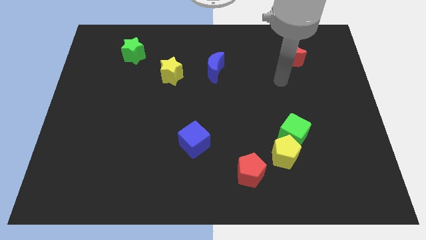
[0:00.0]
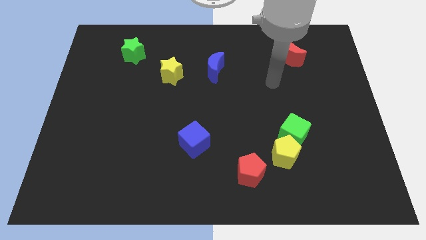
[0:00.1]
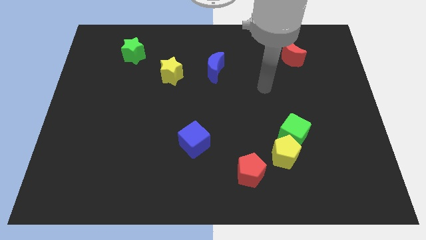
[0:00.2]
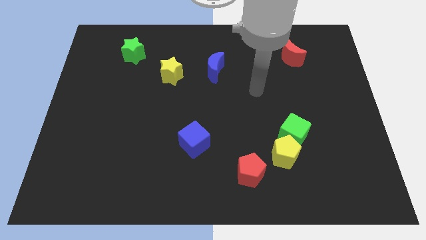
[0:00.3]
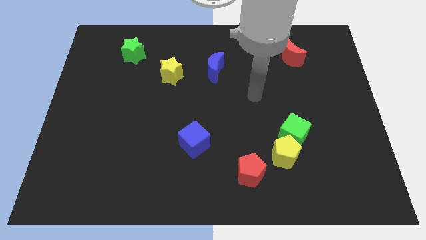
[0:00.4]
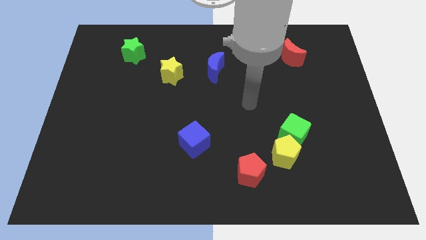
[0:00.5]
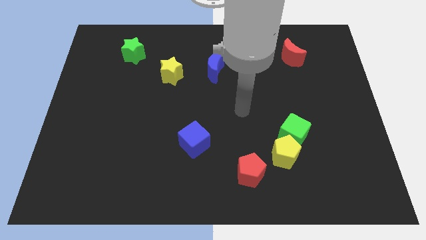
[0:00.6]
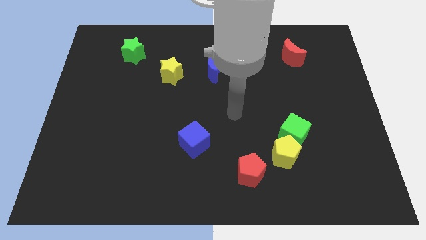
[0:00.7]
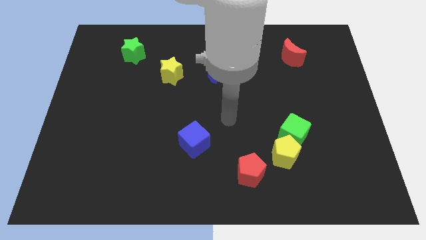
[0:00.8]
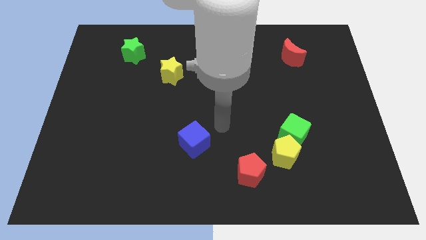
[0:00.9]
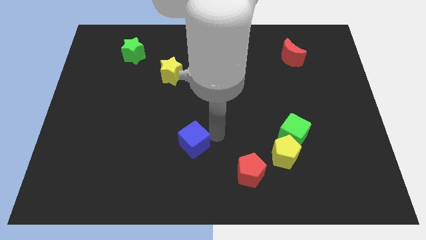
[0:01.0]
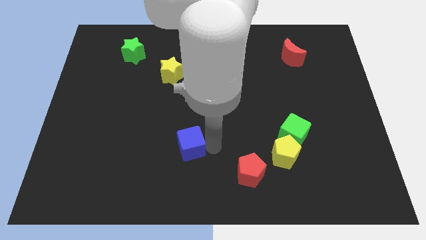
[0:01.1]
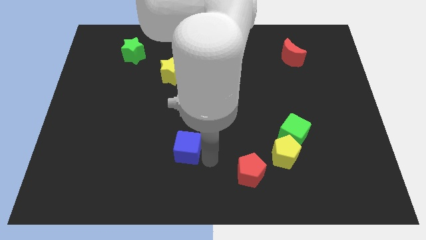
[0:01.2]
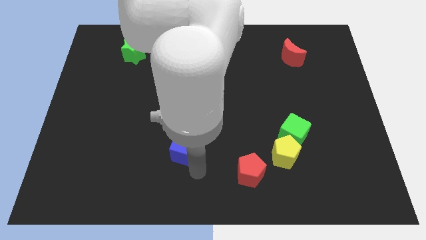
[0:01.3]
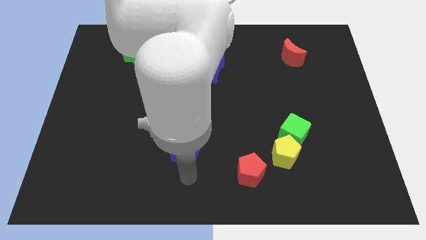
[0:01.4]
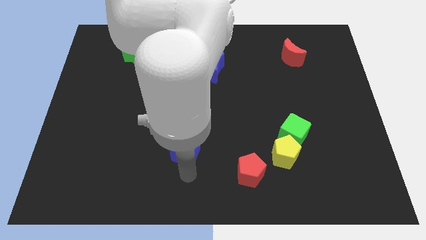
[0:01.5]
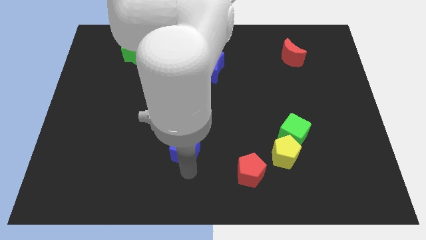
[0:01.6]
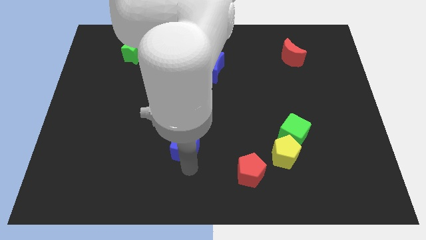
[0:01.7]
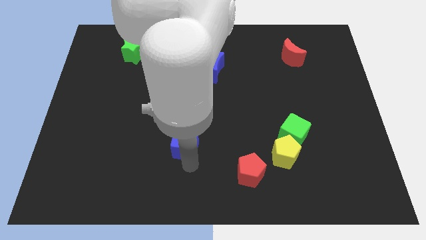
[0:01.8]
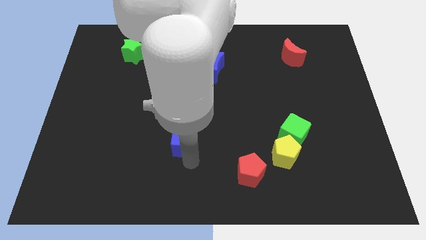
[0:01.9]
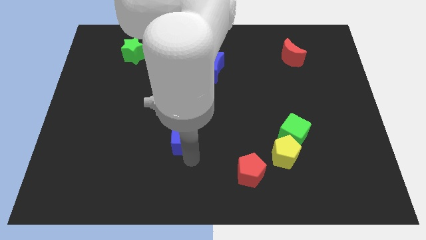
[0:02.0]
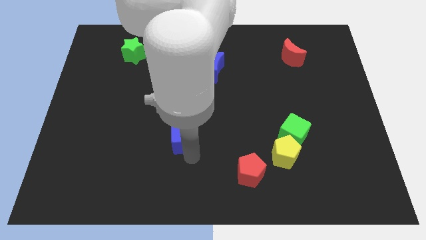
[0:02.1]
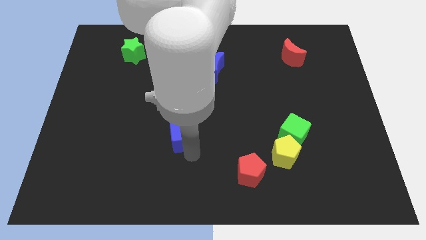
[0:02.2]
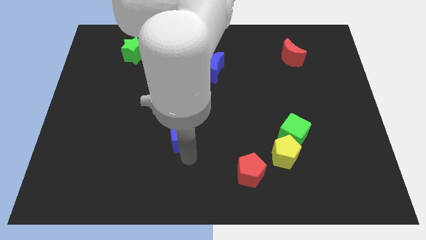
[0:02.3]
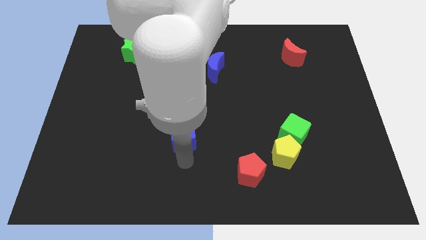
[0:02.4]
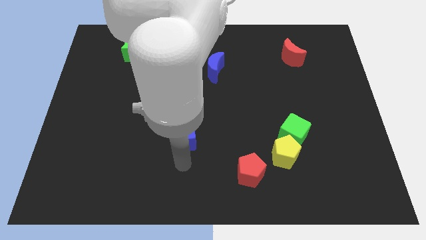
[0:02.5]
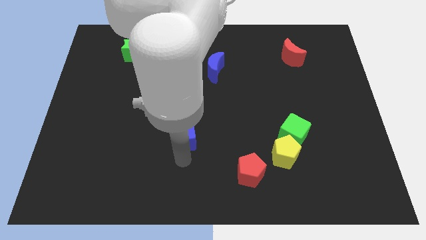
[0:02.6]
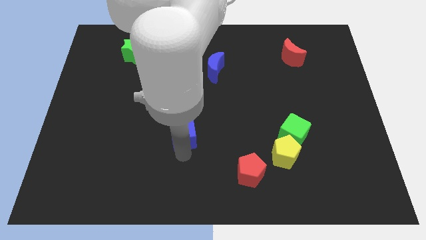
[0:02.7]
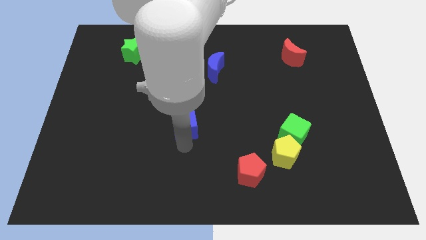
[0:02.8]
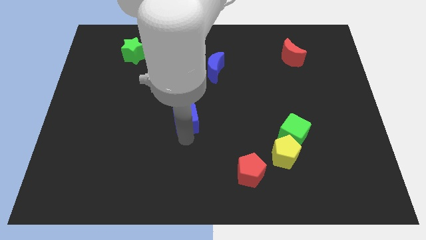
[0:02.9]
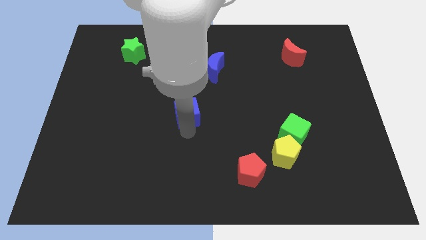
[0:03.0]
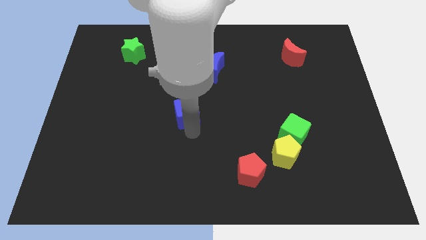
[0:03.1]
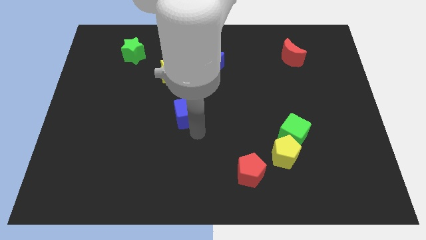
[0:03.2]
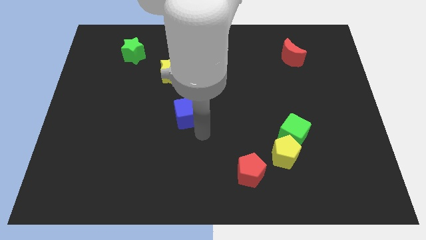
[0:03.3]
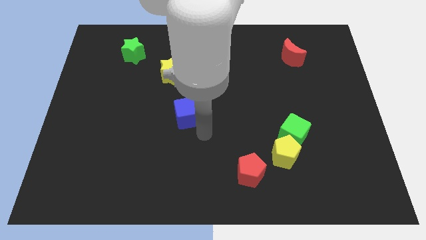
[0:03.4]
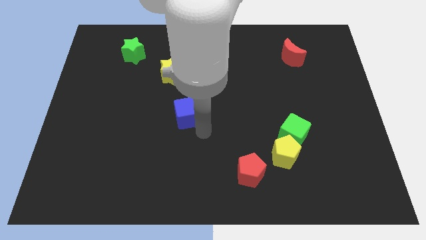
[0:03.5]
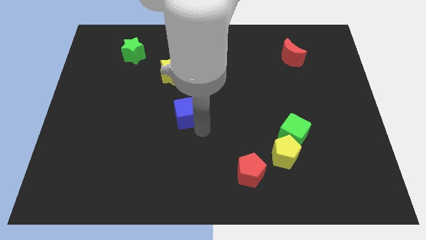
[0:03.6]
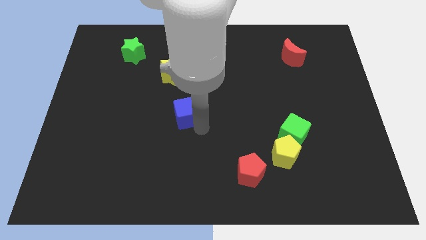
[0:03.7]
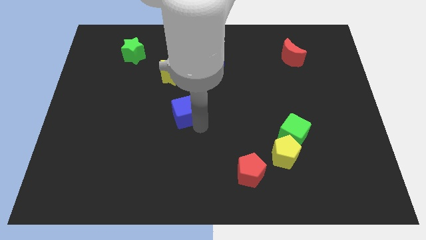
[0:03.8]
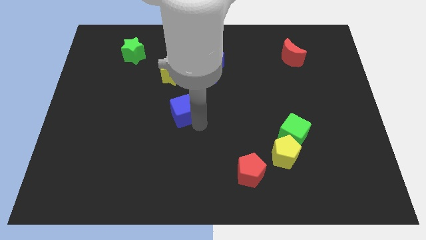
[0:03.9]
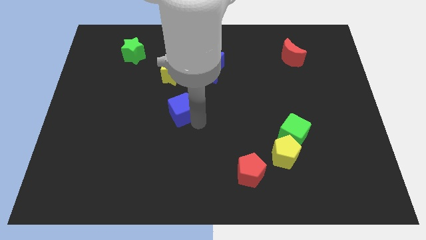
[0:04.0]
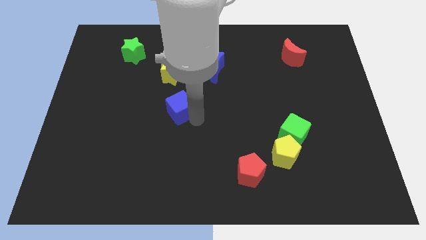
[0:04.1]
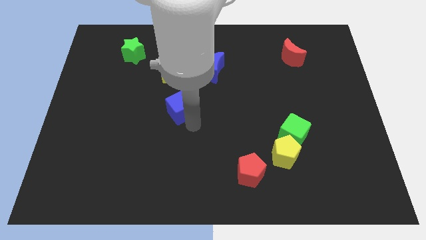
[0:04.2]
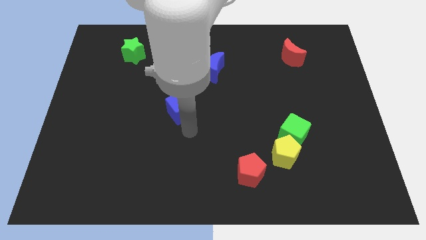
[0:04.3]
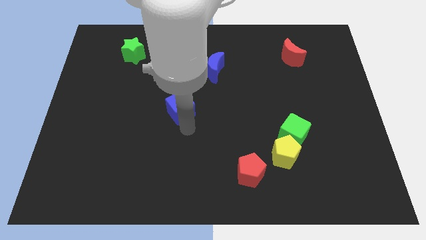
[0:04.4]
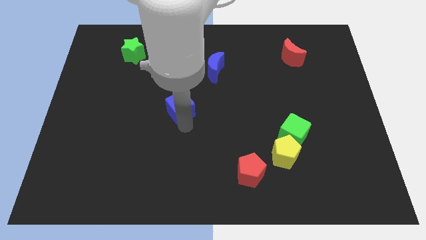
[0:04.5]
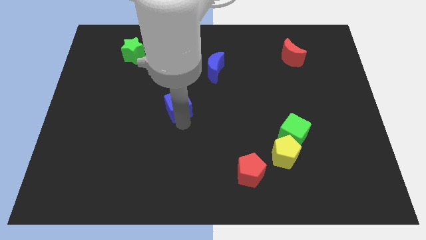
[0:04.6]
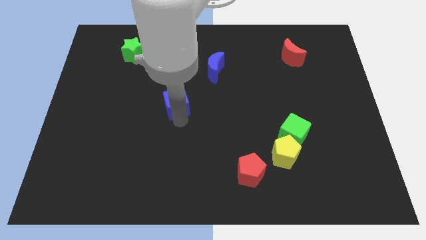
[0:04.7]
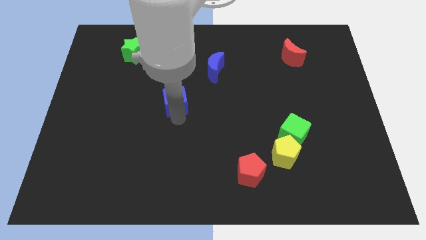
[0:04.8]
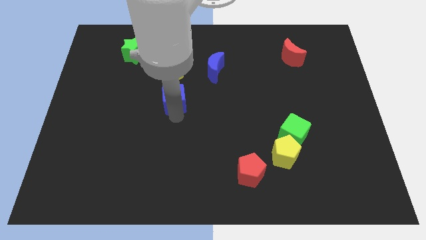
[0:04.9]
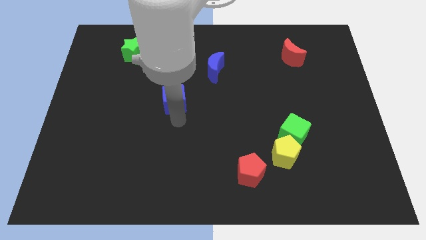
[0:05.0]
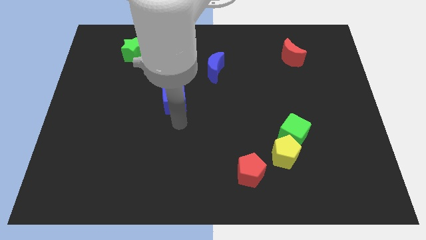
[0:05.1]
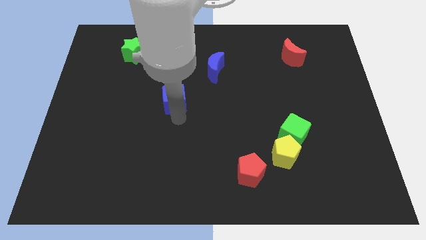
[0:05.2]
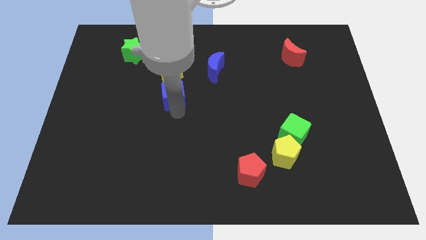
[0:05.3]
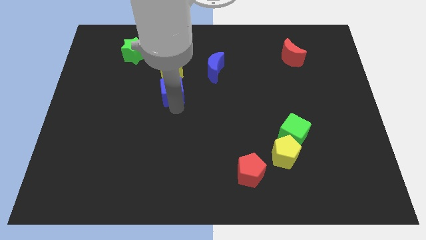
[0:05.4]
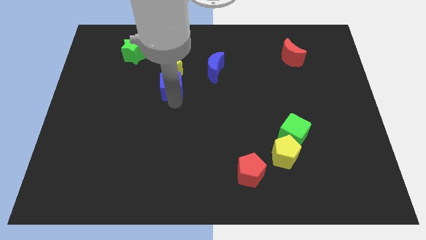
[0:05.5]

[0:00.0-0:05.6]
move the blue cube next to the yellow star

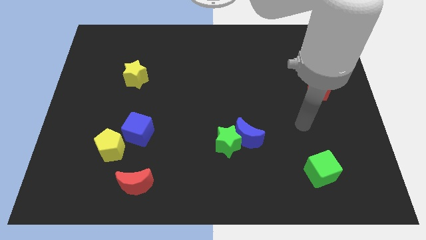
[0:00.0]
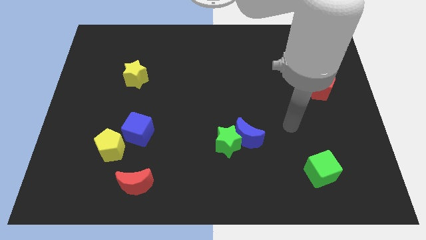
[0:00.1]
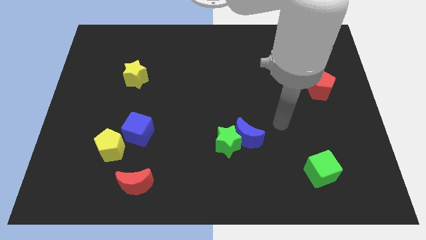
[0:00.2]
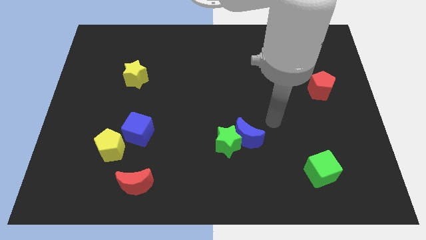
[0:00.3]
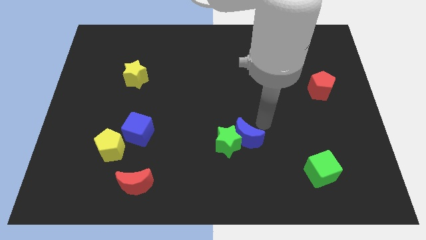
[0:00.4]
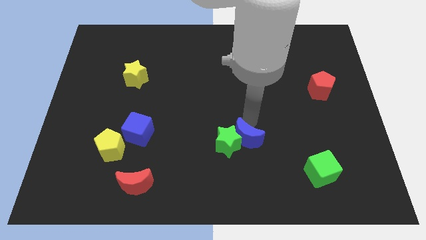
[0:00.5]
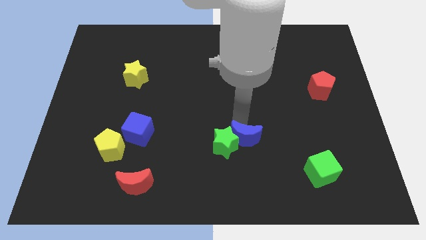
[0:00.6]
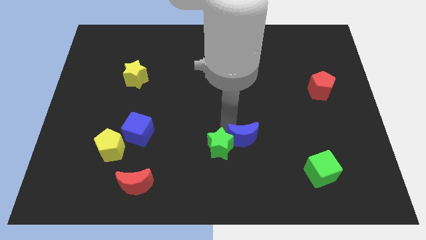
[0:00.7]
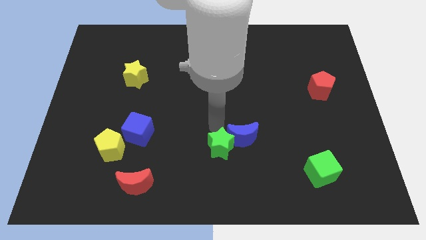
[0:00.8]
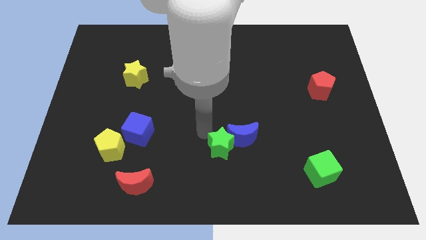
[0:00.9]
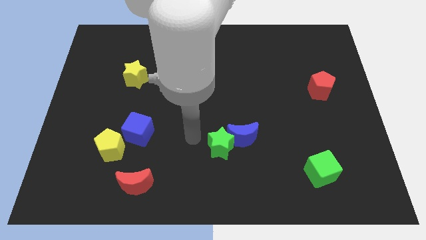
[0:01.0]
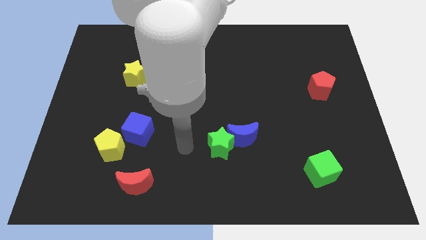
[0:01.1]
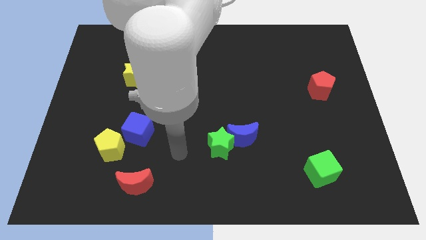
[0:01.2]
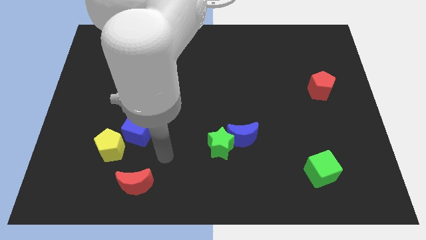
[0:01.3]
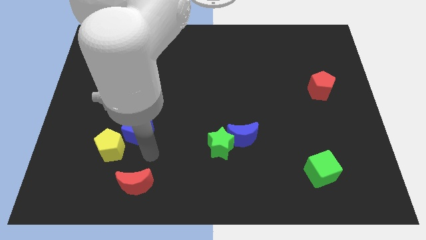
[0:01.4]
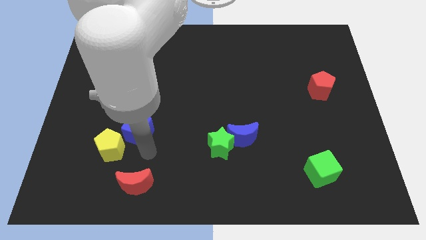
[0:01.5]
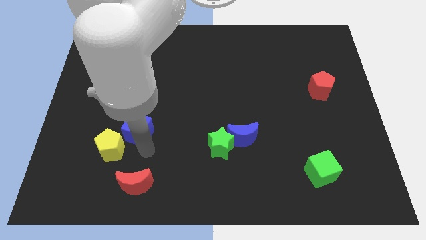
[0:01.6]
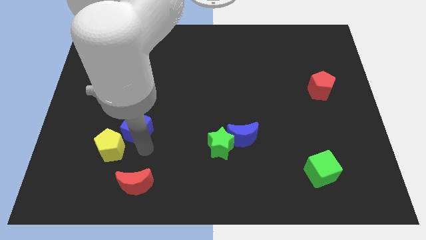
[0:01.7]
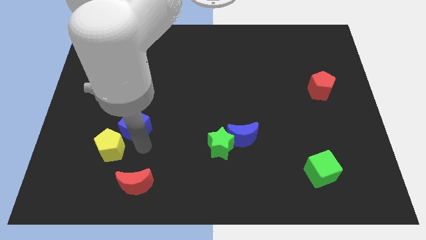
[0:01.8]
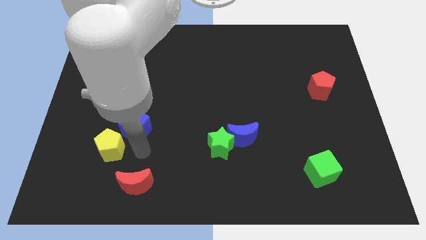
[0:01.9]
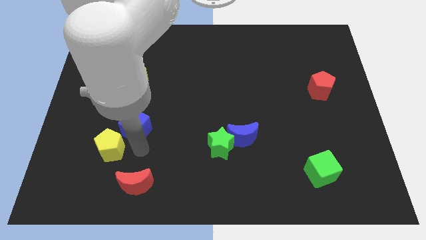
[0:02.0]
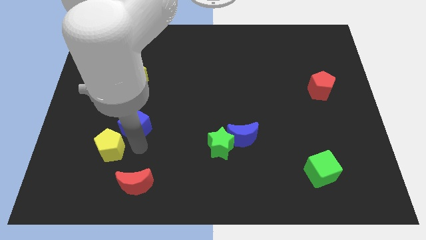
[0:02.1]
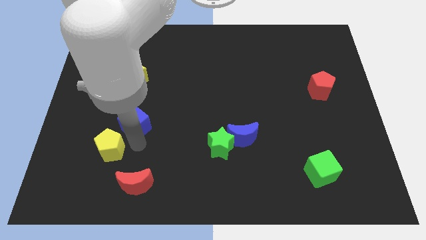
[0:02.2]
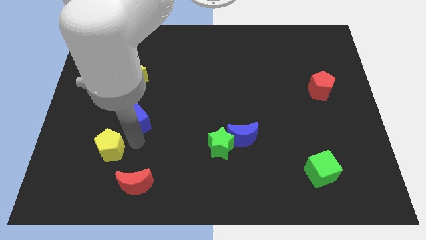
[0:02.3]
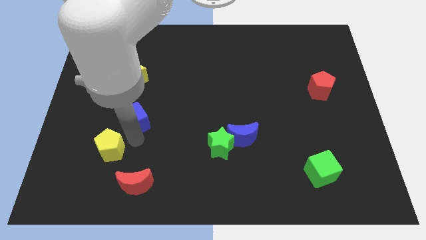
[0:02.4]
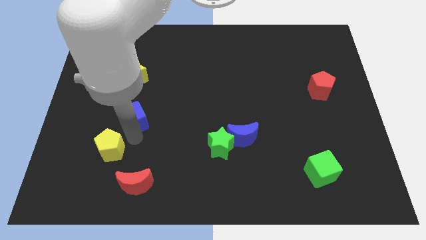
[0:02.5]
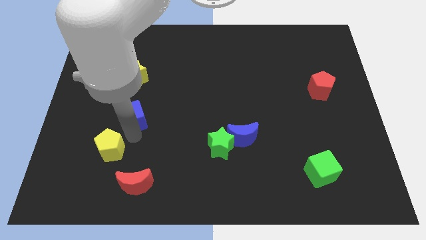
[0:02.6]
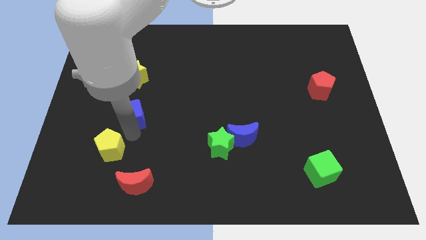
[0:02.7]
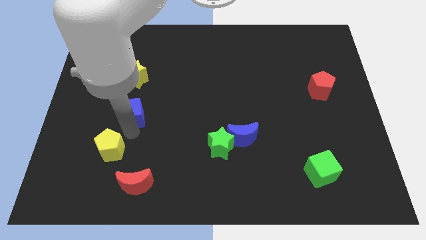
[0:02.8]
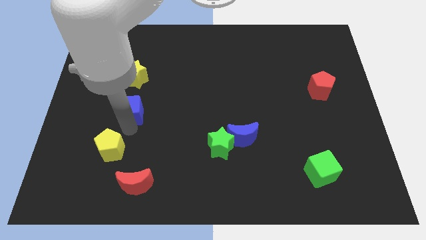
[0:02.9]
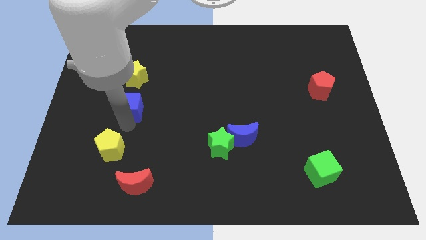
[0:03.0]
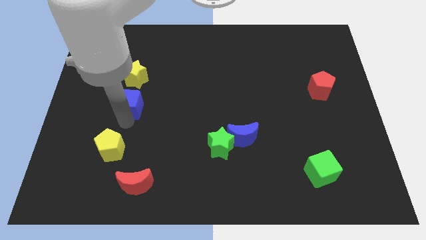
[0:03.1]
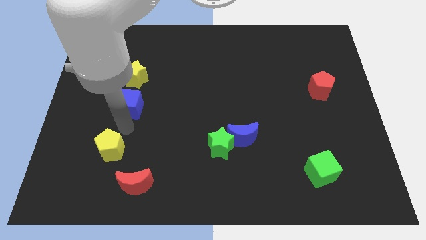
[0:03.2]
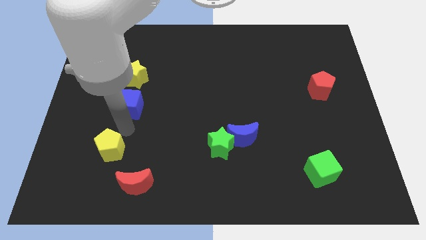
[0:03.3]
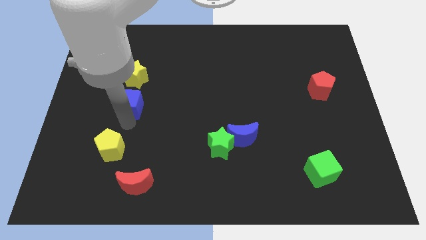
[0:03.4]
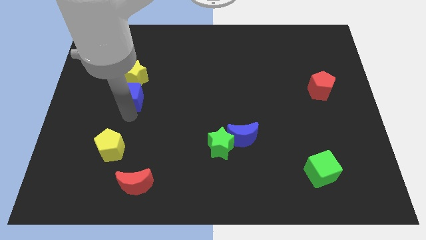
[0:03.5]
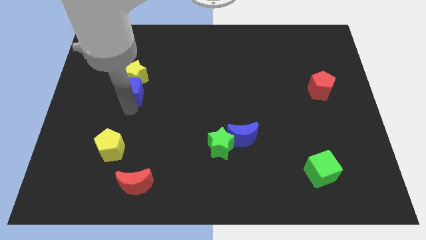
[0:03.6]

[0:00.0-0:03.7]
put the blue cube to the yellow star
